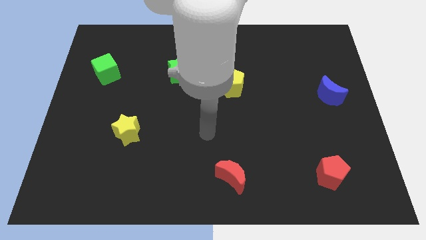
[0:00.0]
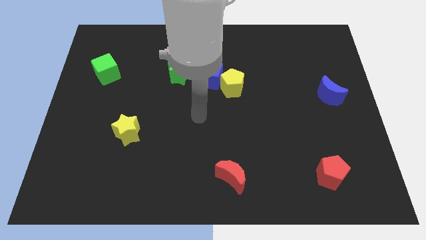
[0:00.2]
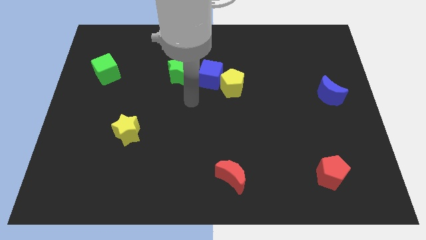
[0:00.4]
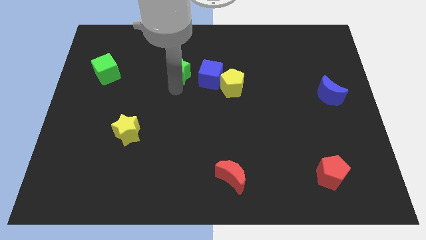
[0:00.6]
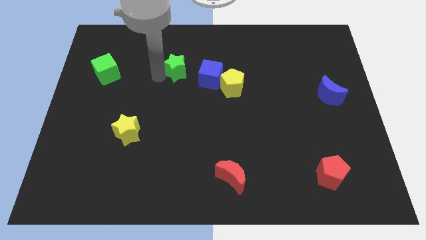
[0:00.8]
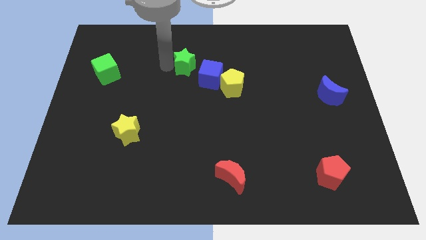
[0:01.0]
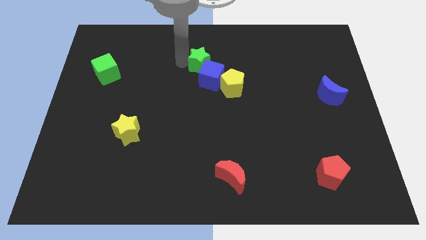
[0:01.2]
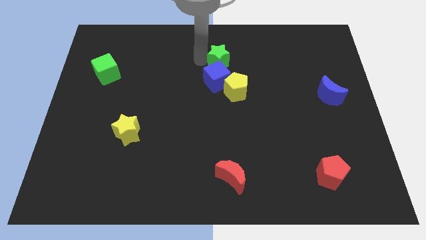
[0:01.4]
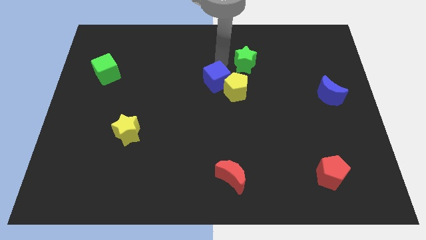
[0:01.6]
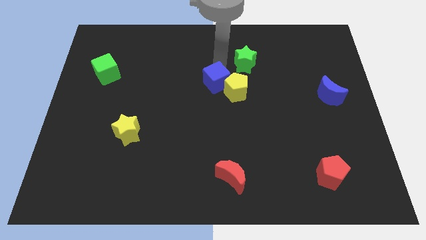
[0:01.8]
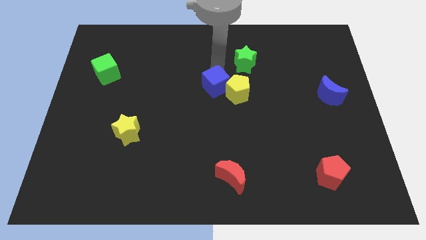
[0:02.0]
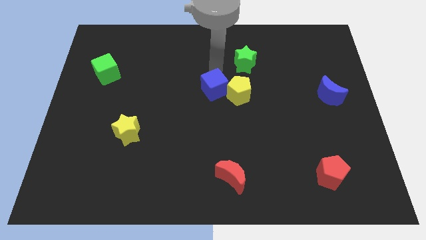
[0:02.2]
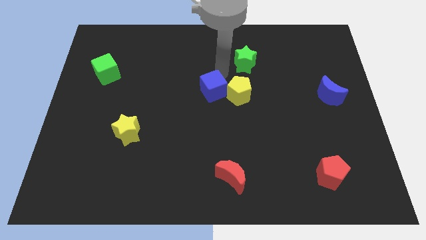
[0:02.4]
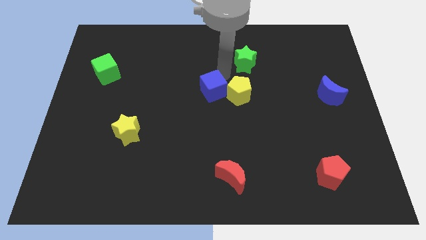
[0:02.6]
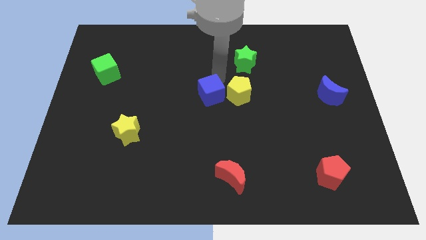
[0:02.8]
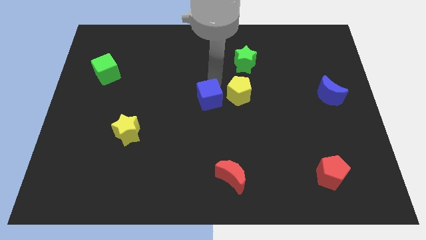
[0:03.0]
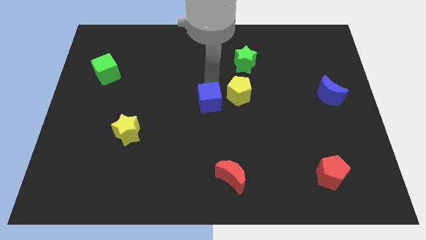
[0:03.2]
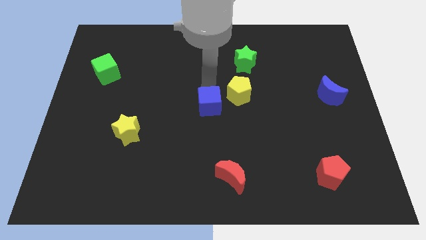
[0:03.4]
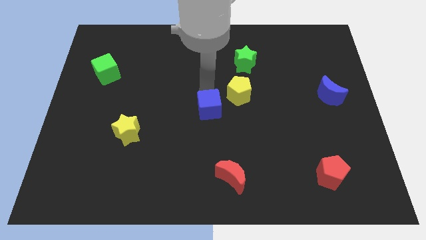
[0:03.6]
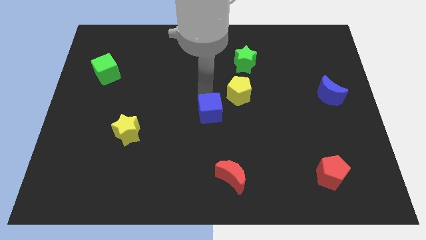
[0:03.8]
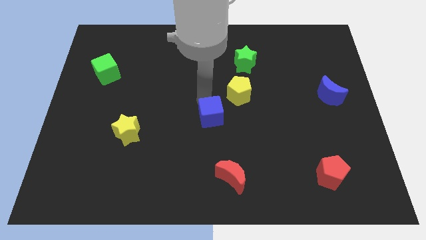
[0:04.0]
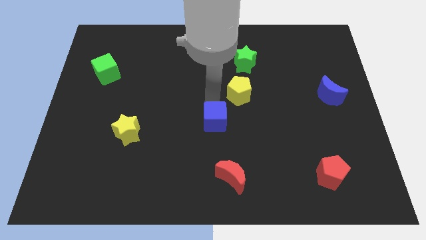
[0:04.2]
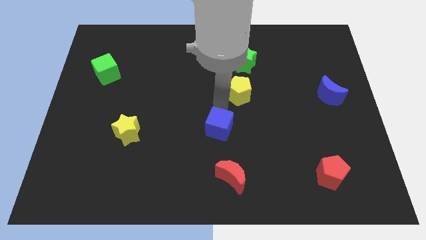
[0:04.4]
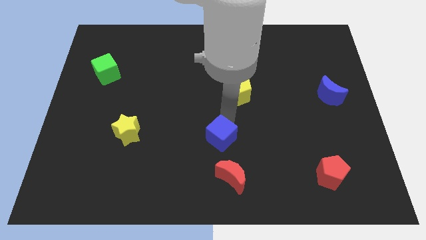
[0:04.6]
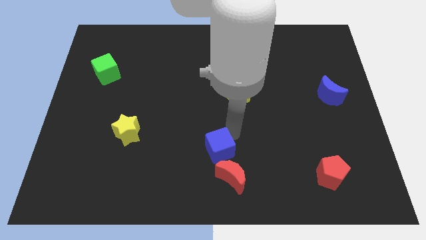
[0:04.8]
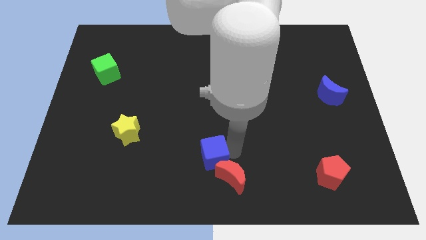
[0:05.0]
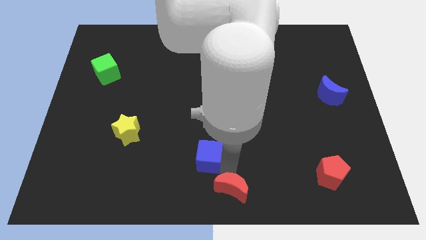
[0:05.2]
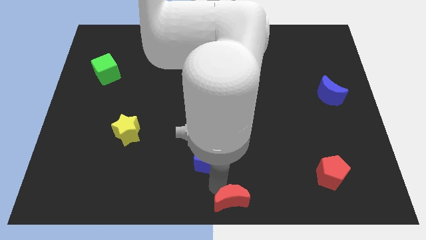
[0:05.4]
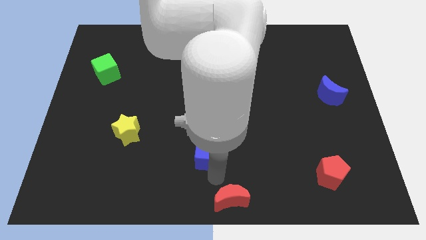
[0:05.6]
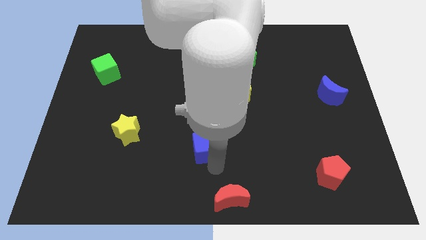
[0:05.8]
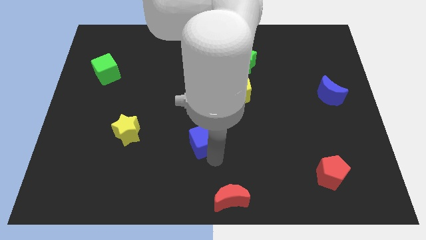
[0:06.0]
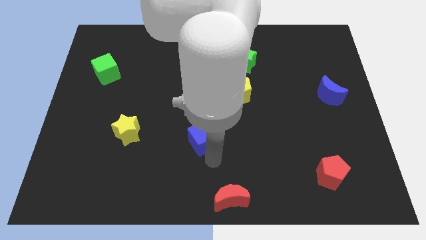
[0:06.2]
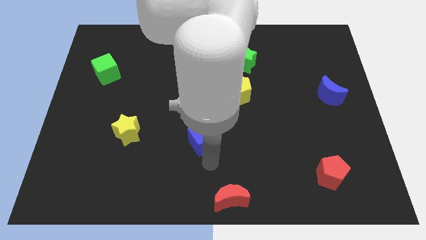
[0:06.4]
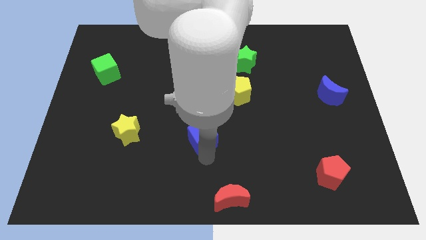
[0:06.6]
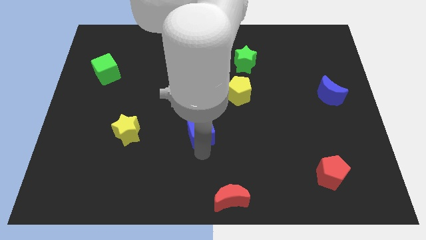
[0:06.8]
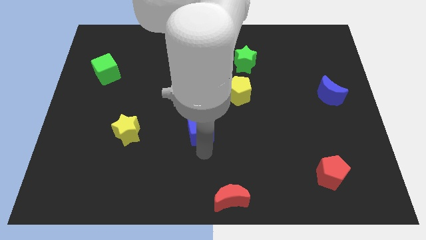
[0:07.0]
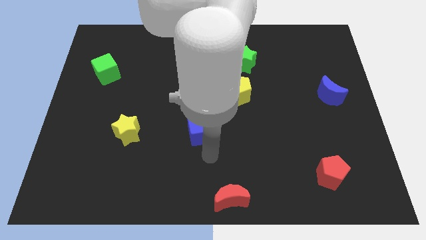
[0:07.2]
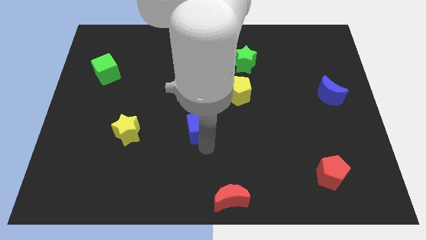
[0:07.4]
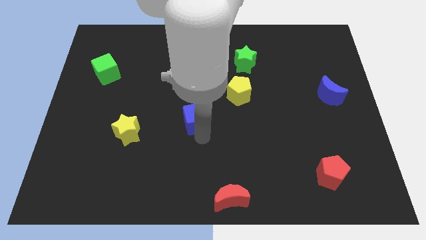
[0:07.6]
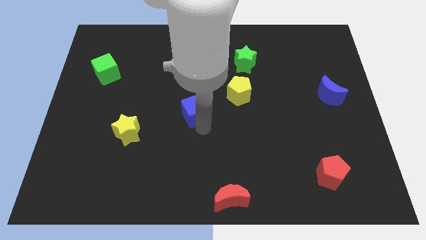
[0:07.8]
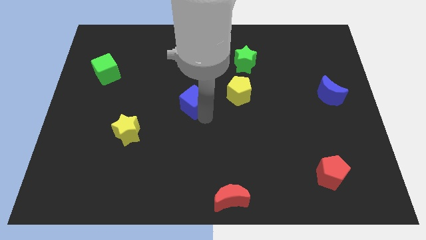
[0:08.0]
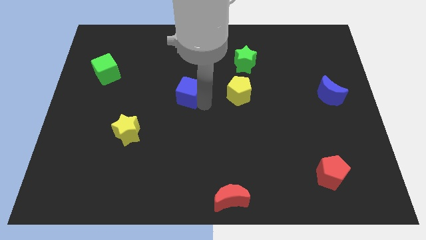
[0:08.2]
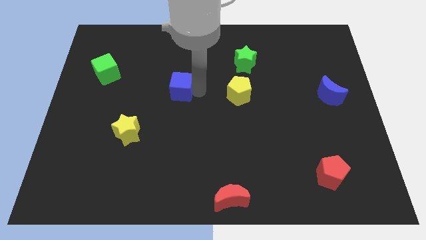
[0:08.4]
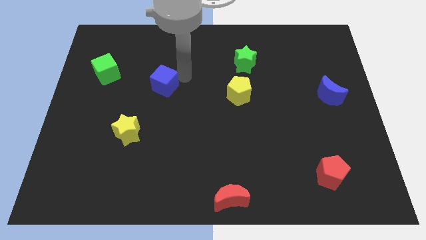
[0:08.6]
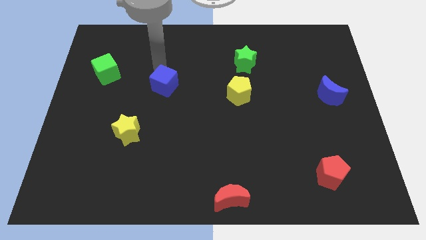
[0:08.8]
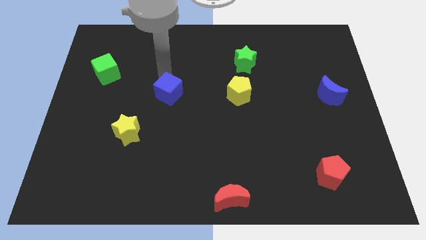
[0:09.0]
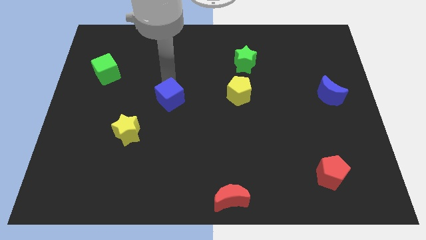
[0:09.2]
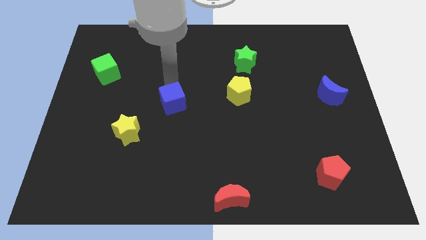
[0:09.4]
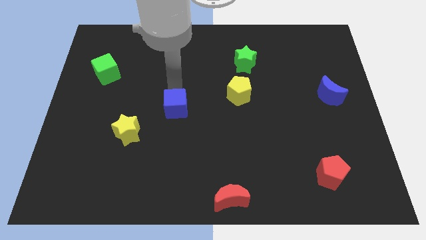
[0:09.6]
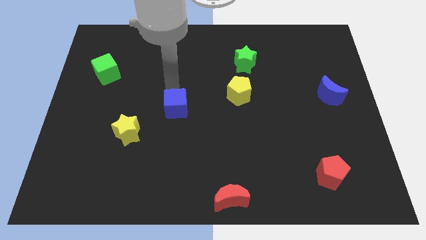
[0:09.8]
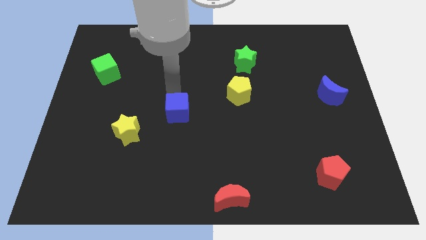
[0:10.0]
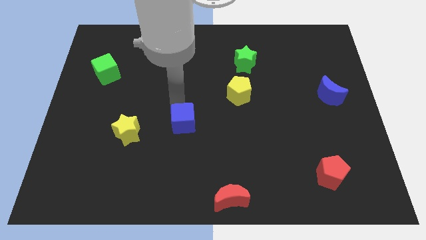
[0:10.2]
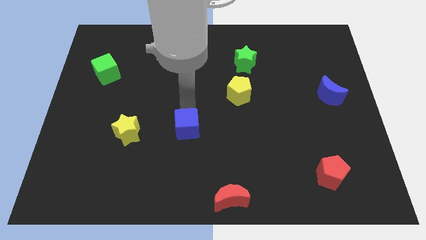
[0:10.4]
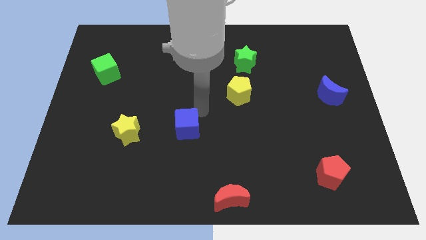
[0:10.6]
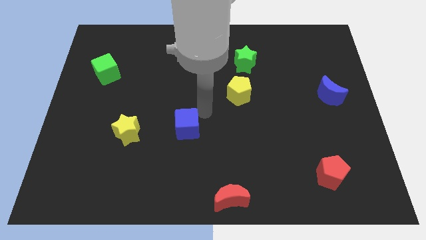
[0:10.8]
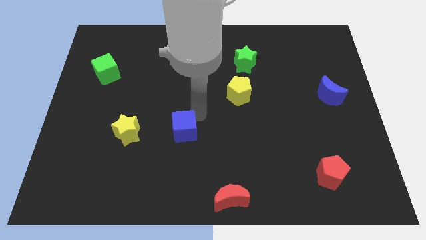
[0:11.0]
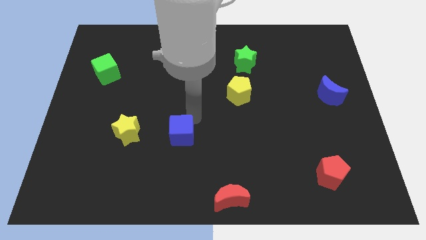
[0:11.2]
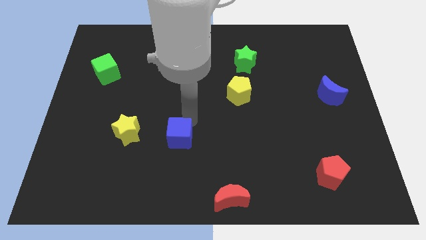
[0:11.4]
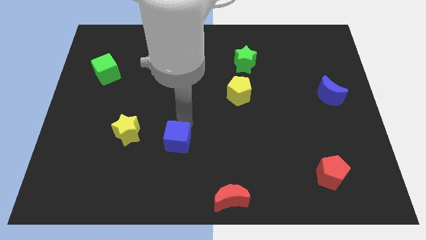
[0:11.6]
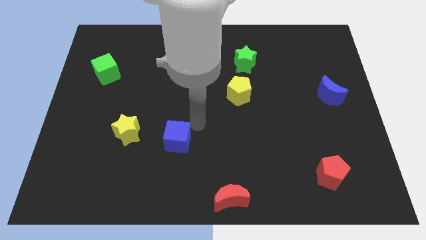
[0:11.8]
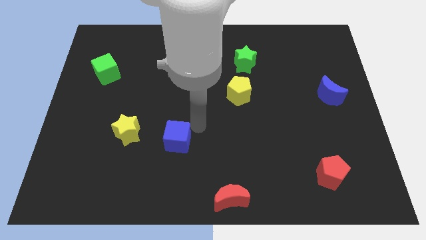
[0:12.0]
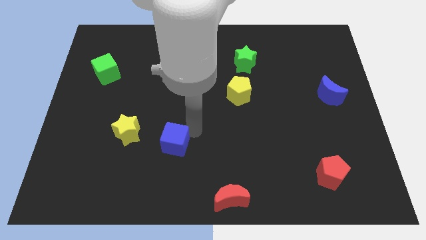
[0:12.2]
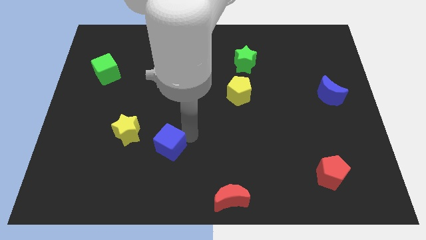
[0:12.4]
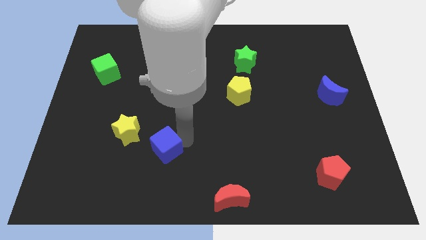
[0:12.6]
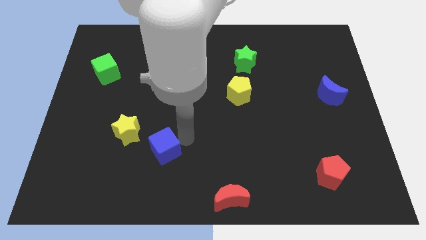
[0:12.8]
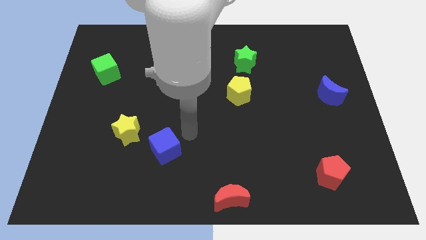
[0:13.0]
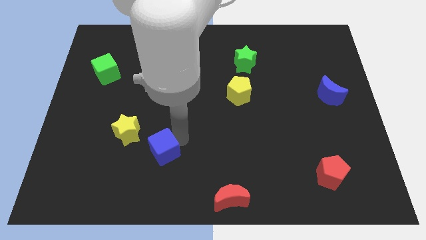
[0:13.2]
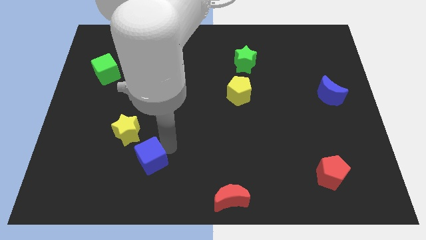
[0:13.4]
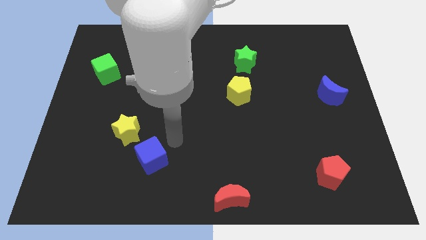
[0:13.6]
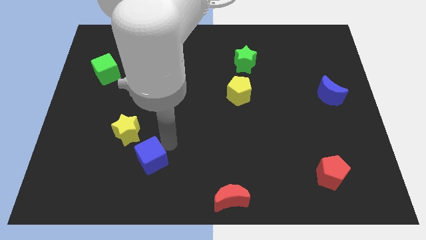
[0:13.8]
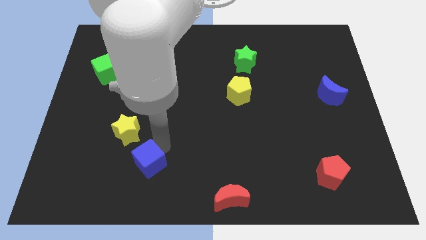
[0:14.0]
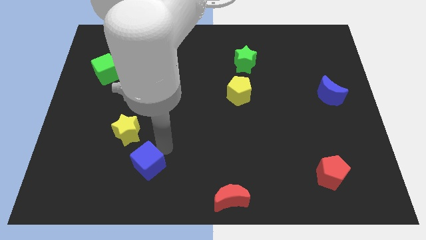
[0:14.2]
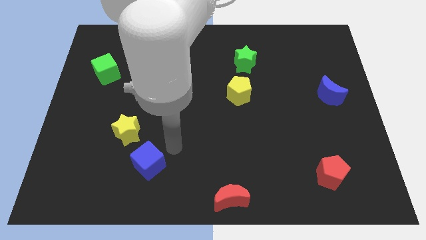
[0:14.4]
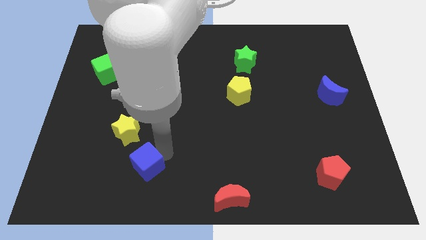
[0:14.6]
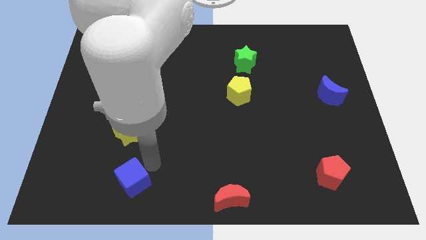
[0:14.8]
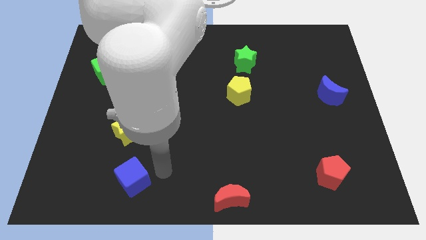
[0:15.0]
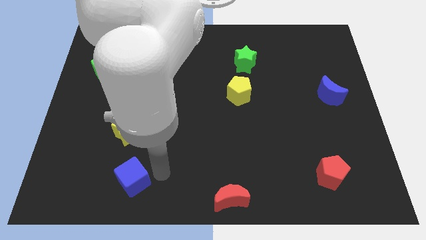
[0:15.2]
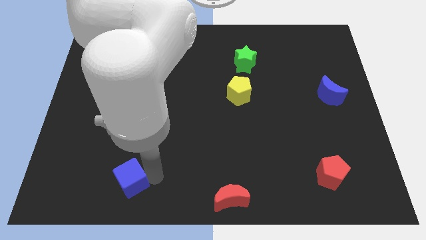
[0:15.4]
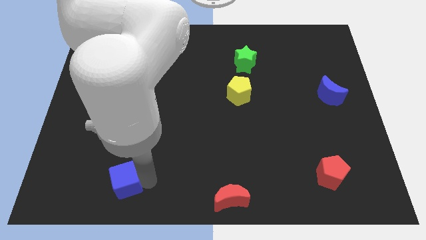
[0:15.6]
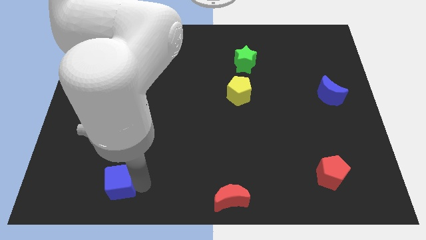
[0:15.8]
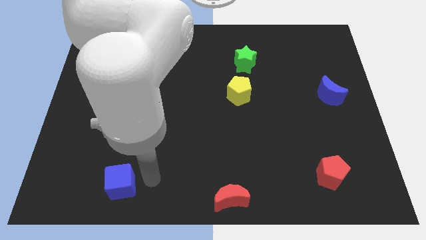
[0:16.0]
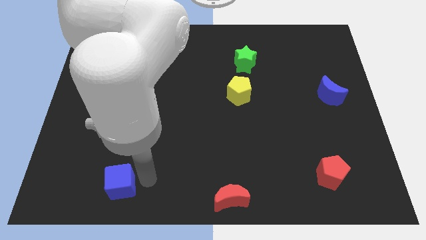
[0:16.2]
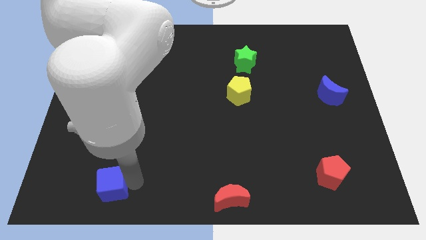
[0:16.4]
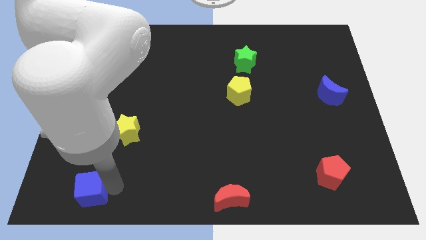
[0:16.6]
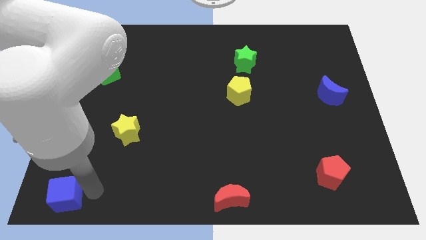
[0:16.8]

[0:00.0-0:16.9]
push the blue cube to the lower left corner
